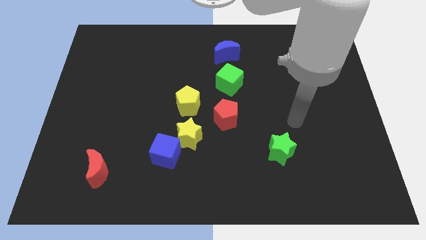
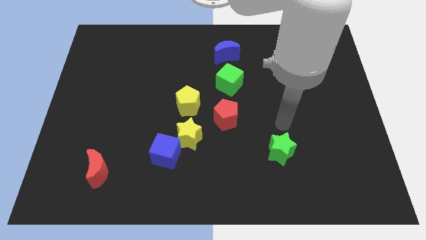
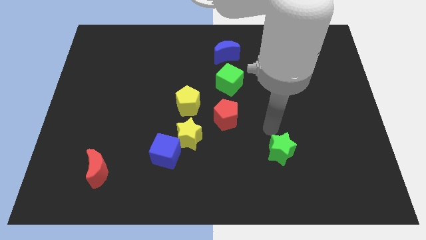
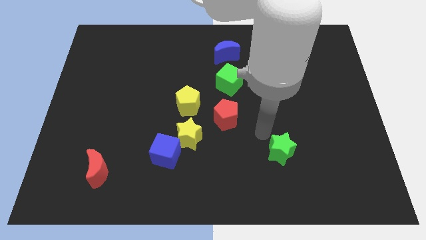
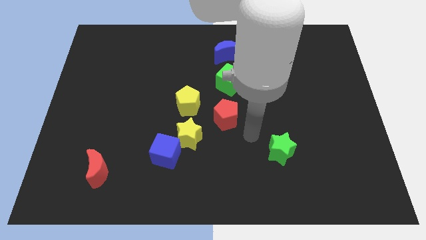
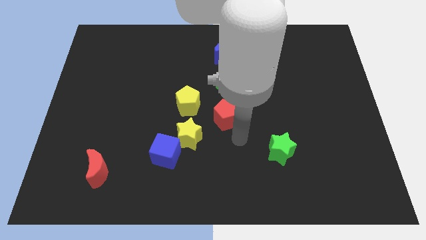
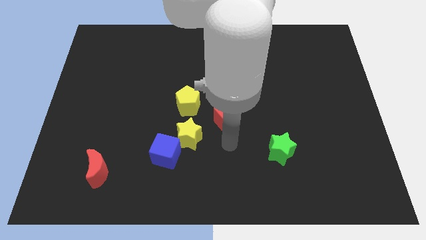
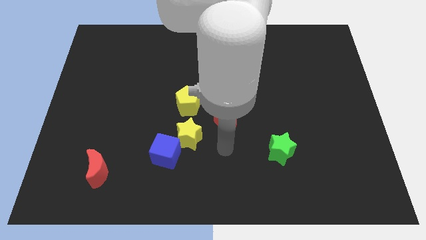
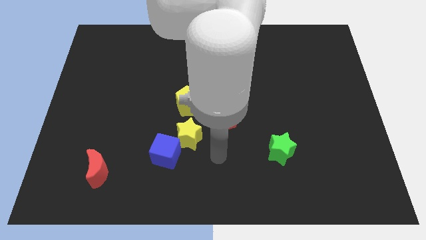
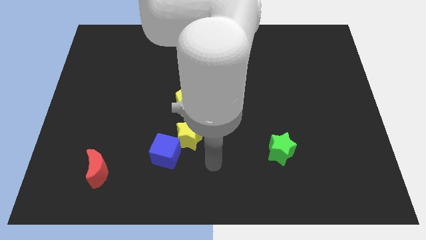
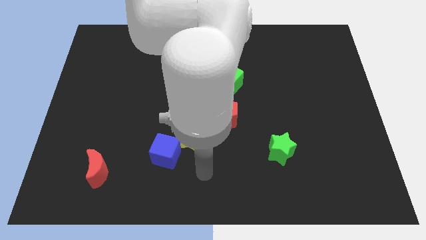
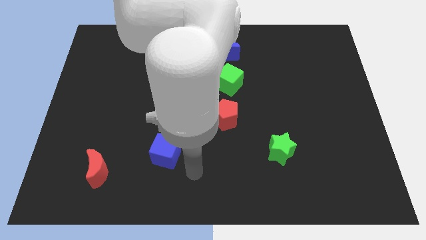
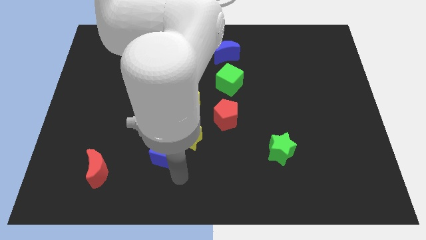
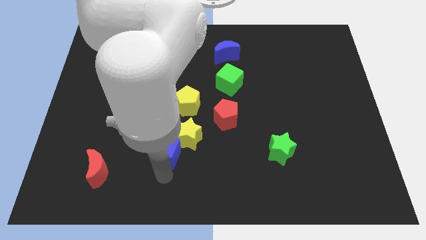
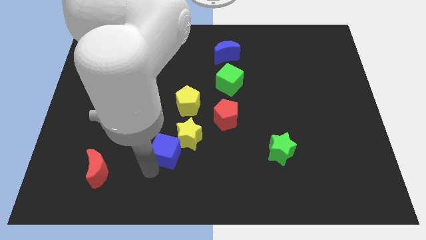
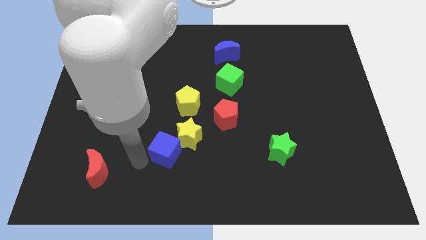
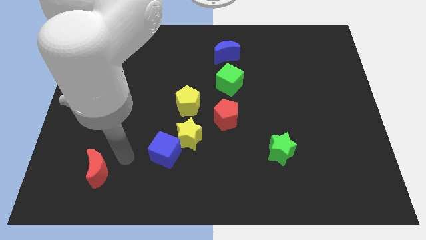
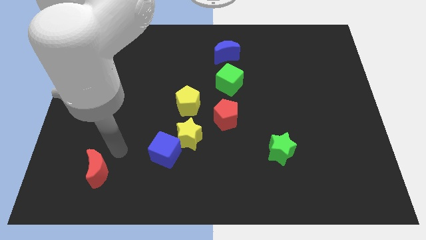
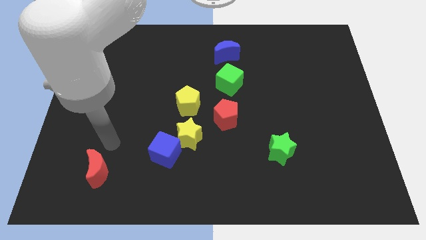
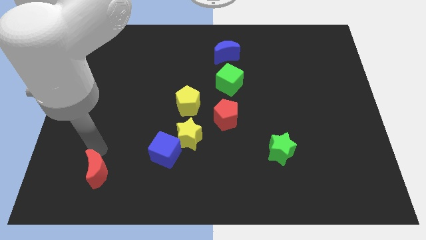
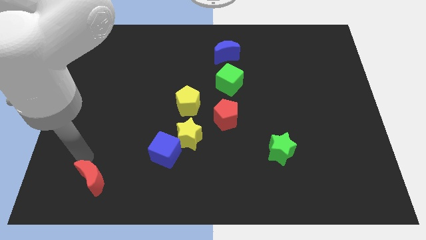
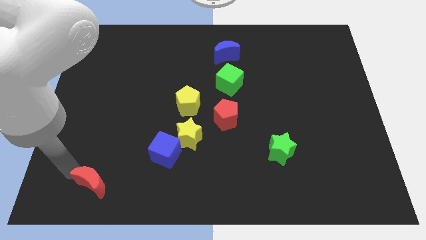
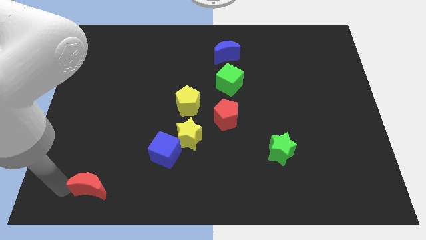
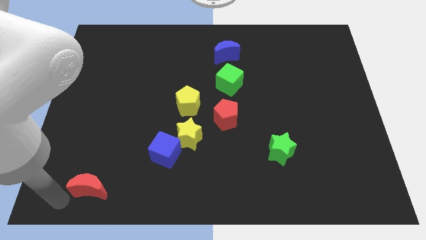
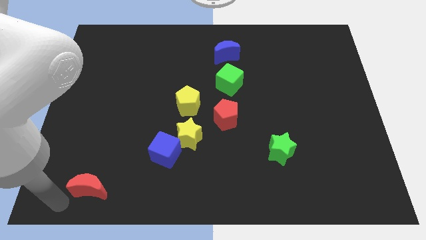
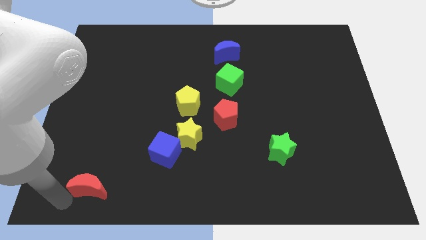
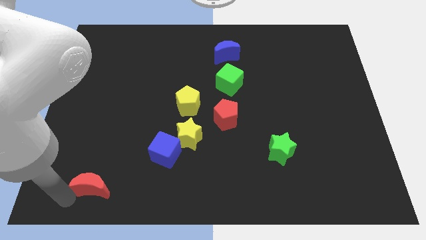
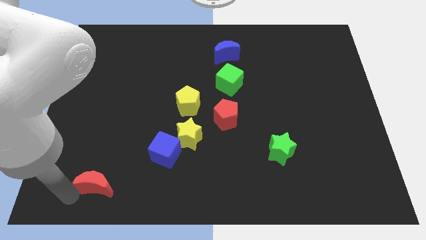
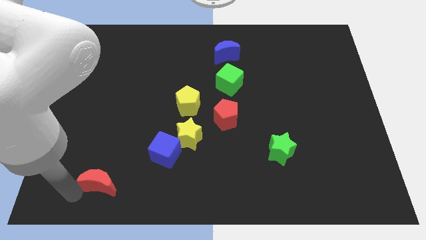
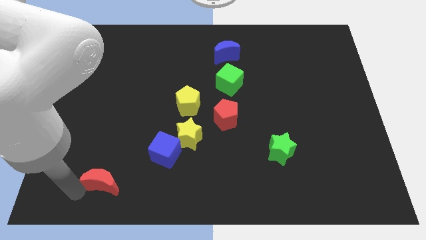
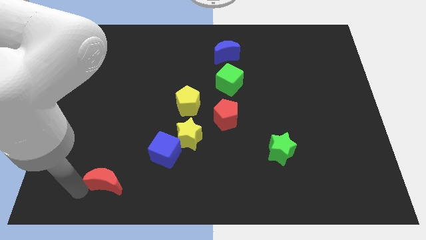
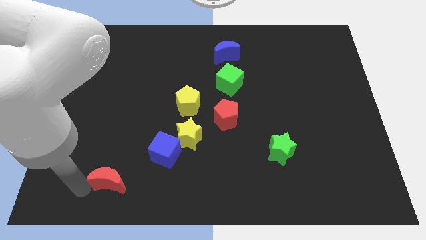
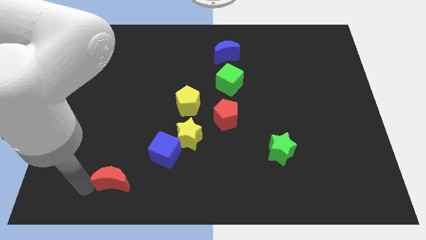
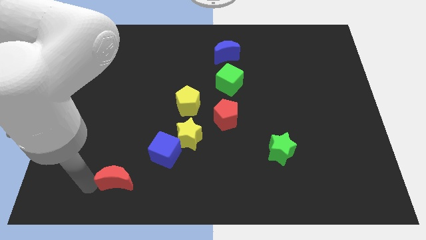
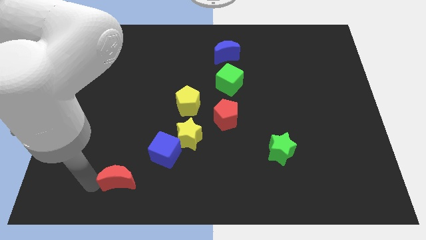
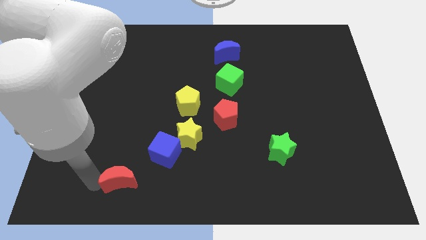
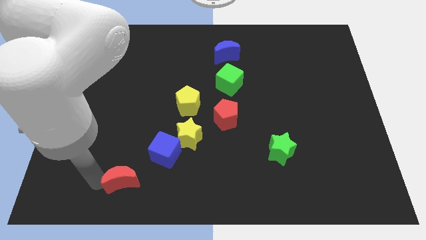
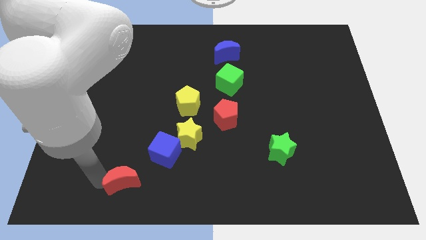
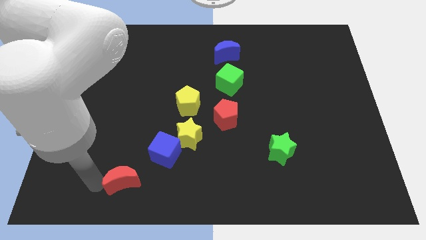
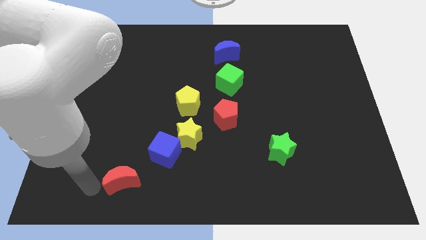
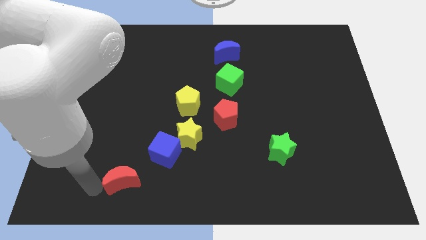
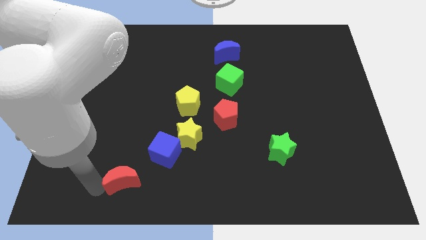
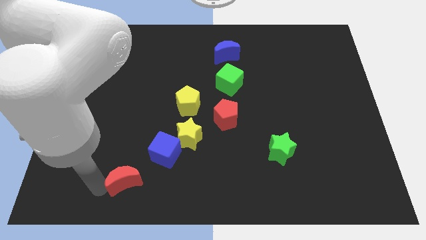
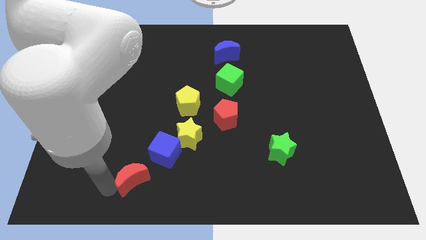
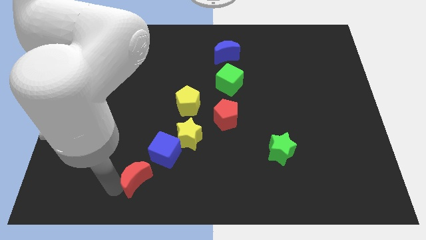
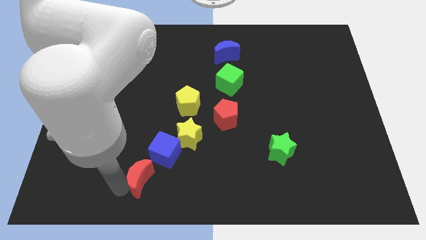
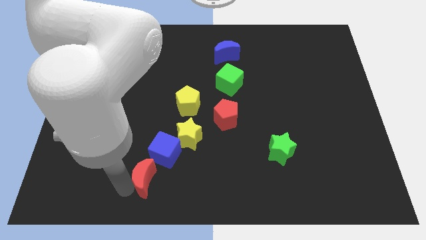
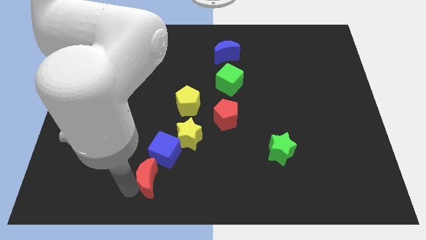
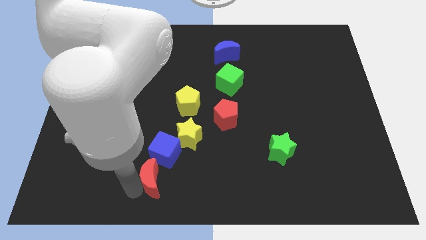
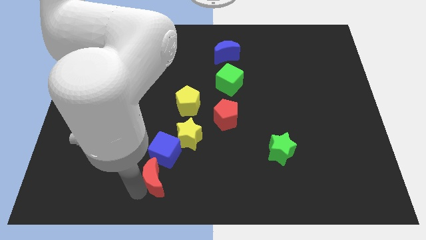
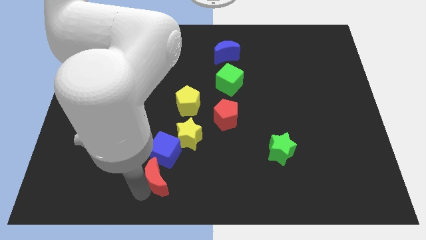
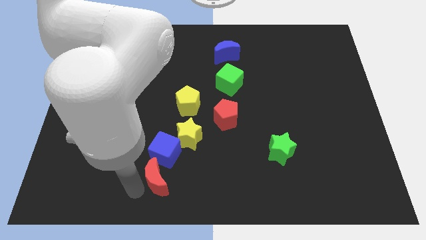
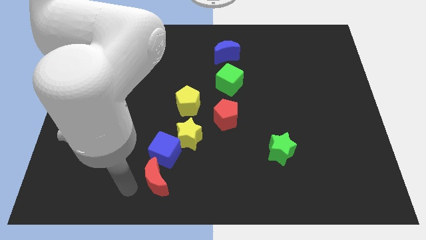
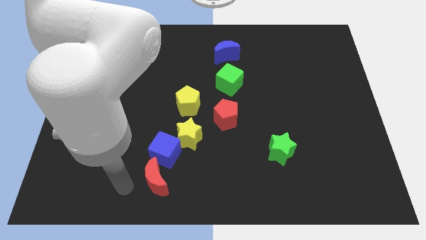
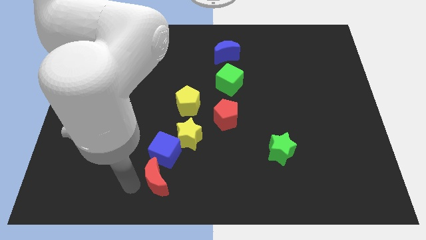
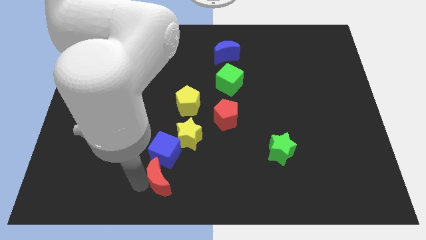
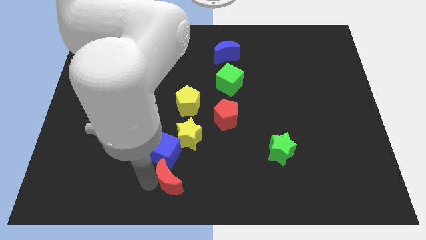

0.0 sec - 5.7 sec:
move the red moon diagonally down and to the right of the blue cube

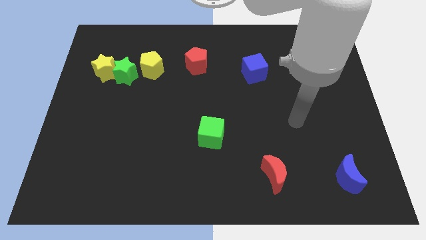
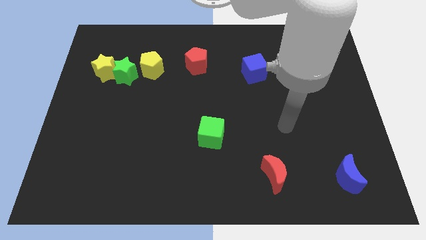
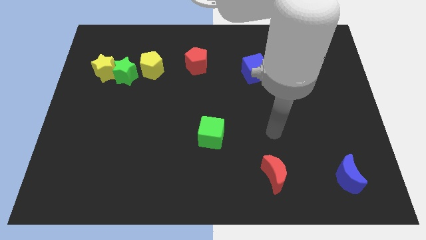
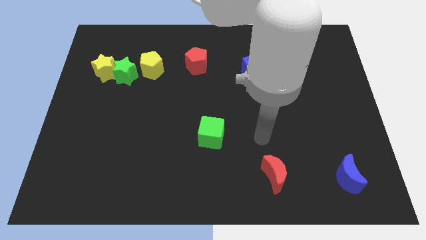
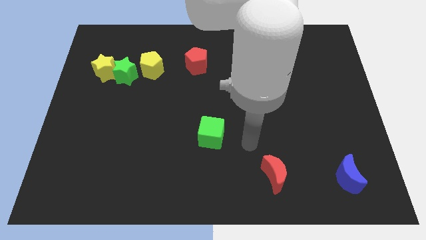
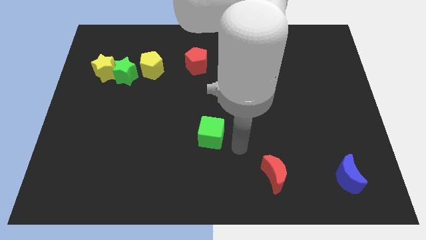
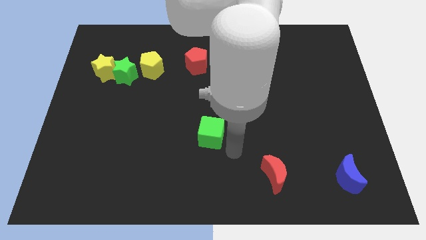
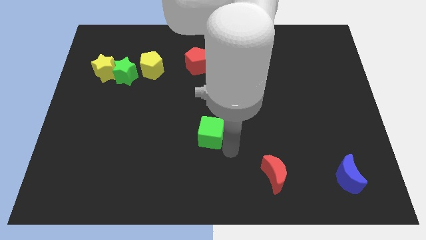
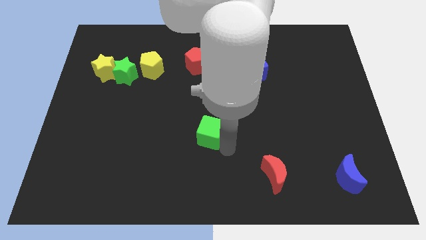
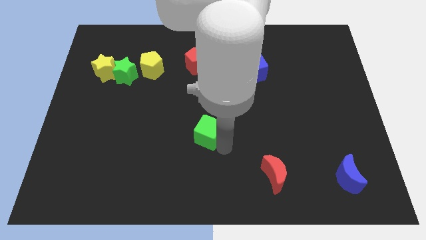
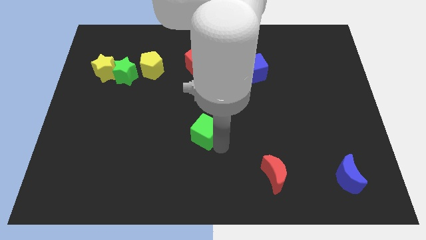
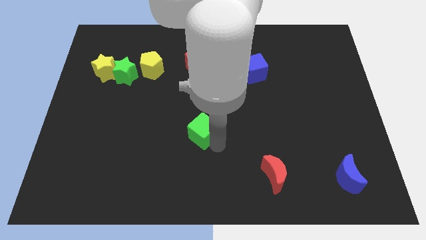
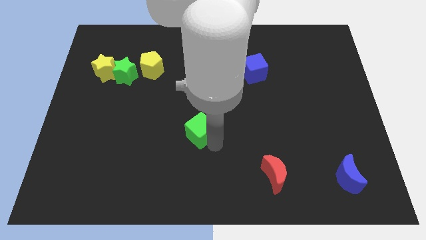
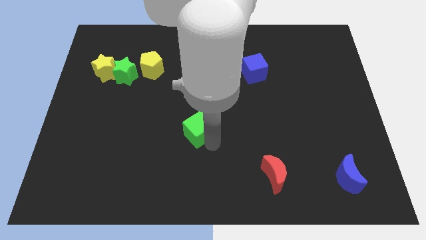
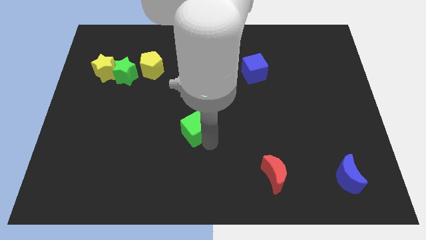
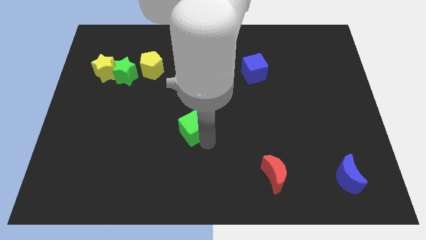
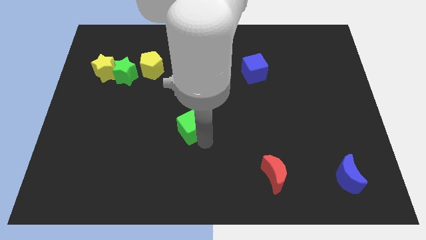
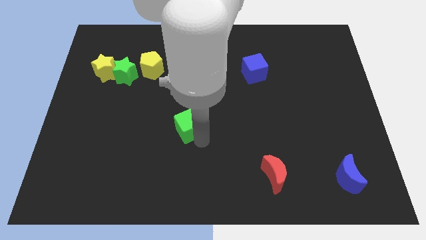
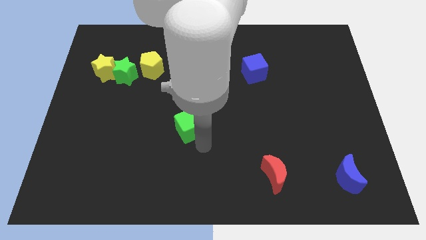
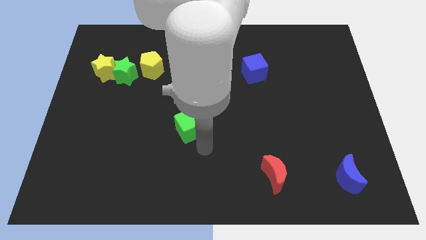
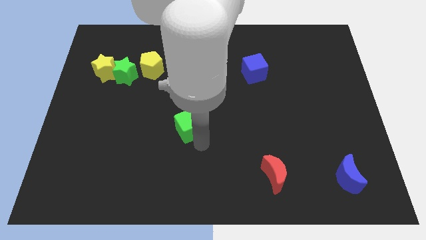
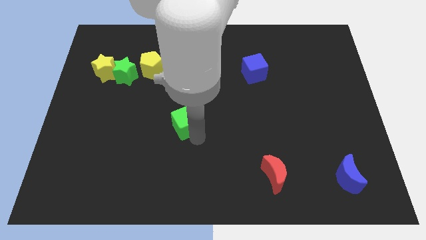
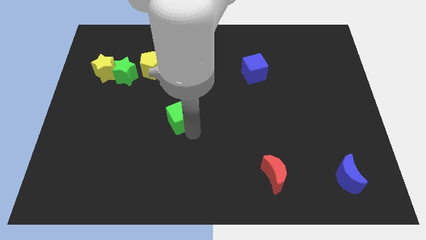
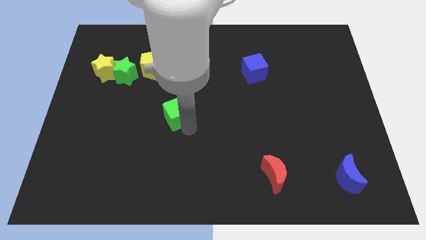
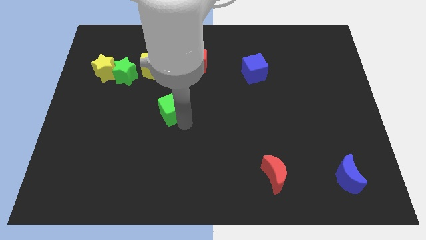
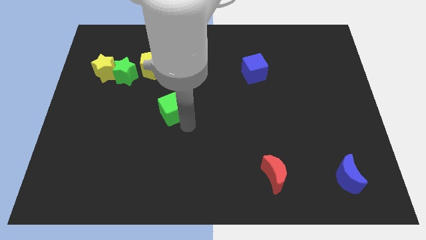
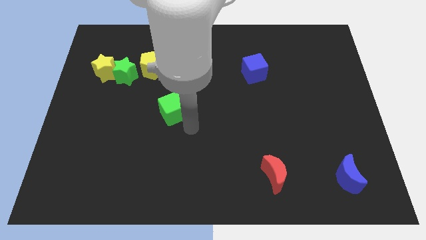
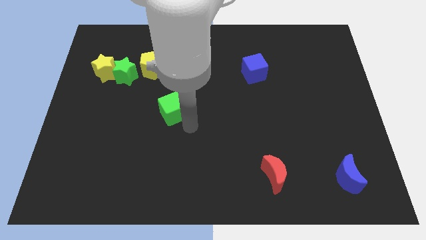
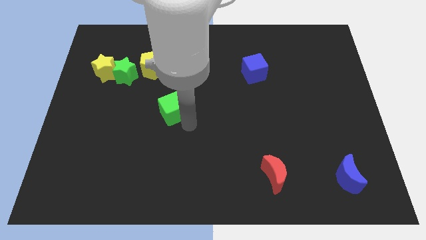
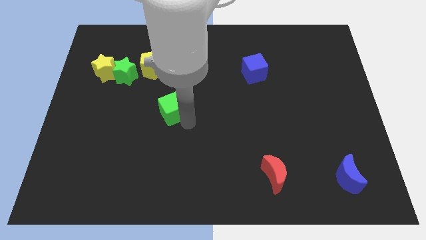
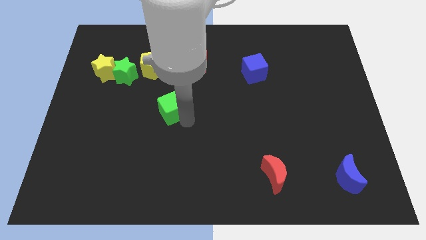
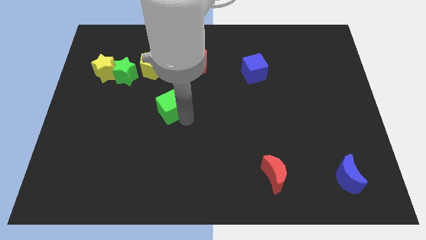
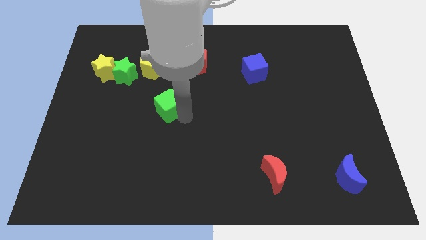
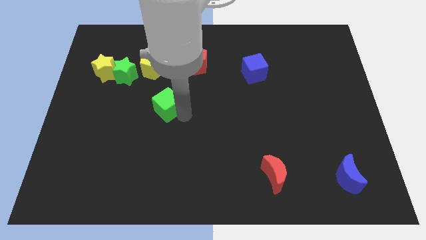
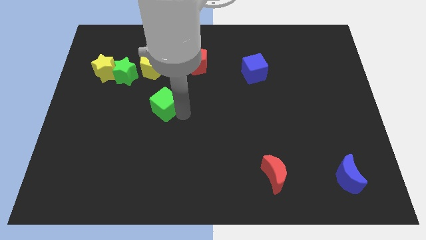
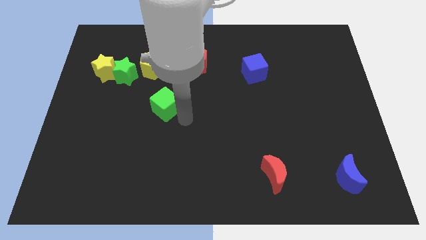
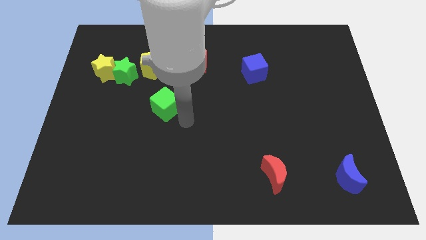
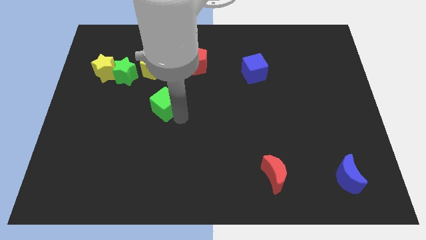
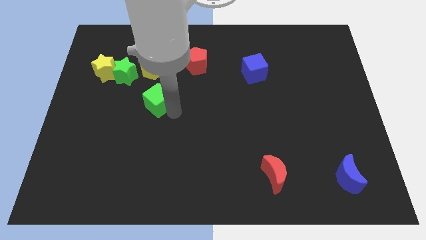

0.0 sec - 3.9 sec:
put the green cube to the bottom right of the green star
